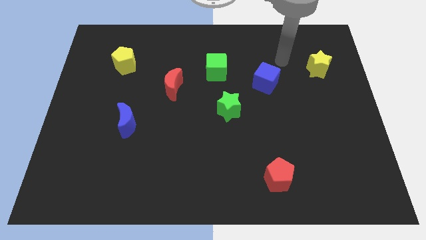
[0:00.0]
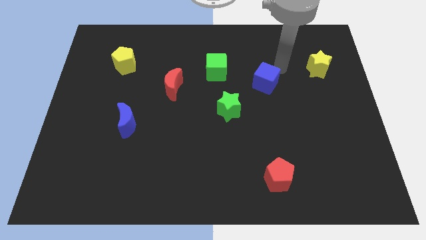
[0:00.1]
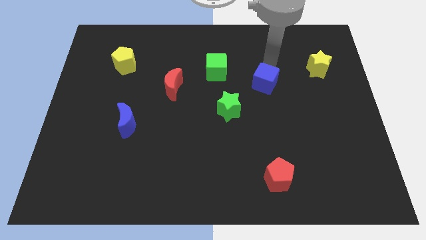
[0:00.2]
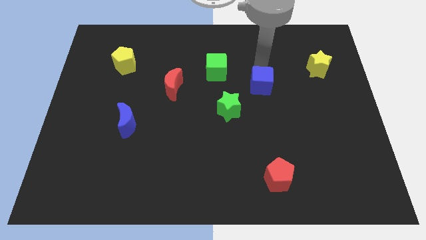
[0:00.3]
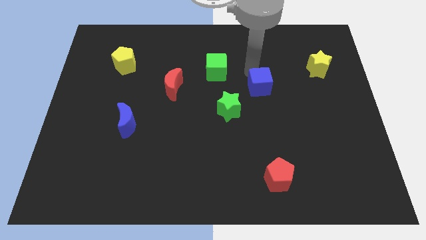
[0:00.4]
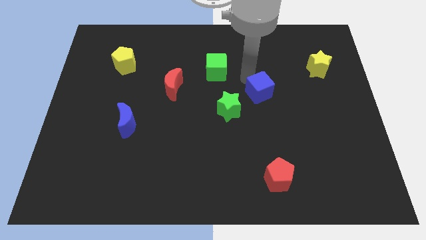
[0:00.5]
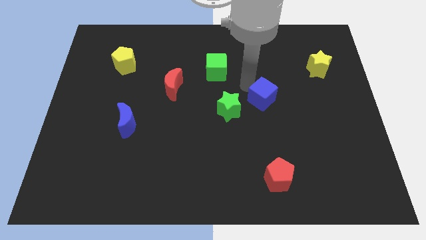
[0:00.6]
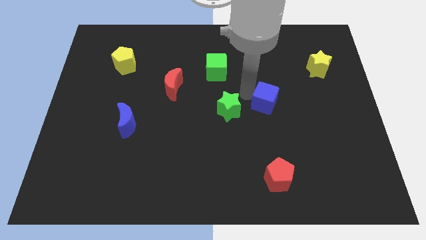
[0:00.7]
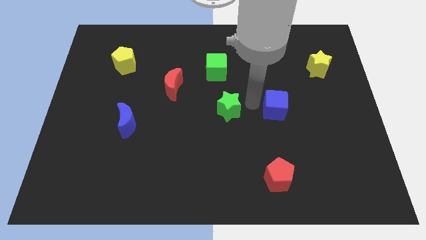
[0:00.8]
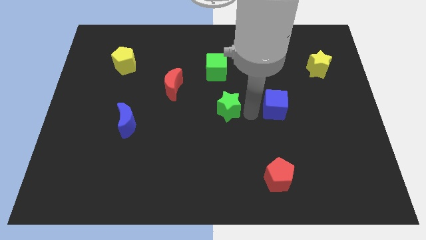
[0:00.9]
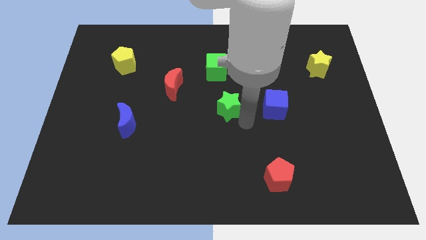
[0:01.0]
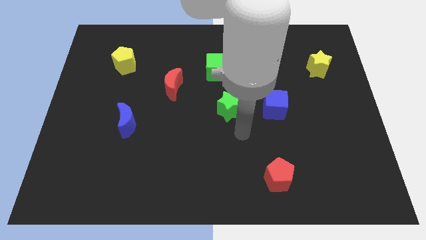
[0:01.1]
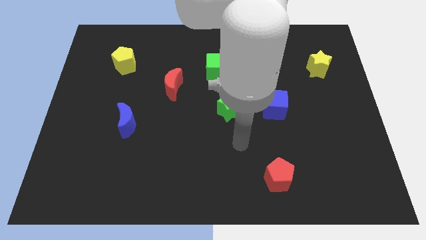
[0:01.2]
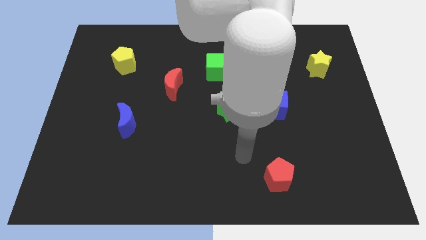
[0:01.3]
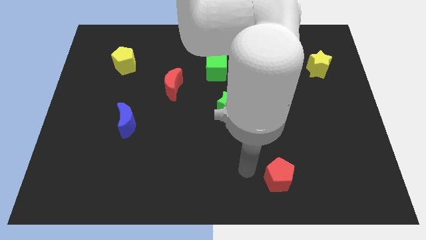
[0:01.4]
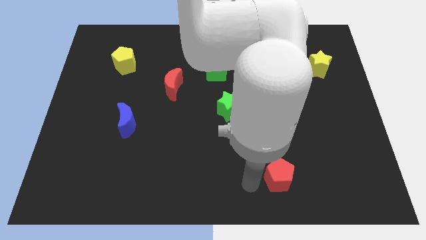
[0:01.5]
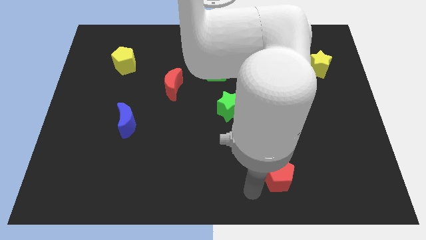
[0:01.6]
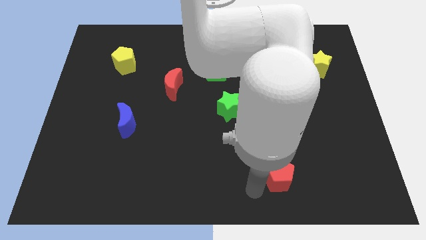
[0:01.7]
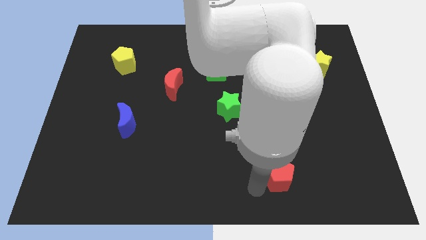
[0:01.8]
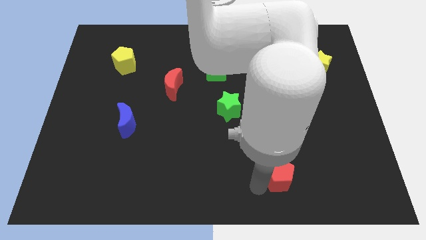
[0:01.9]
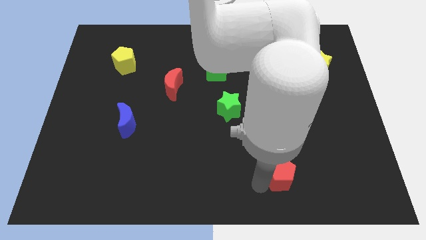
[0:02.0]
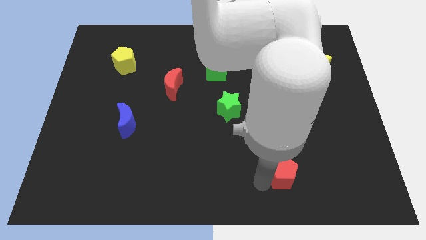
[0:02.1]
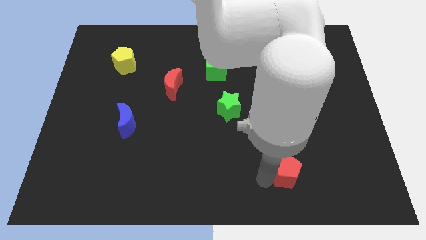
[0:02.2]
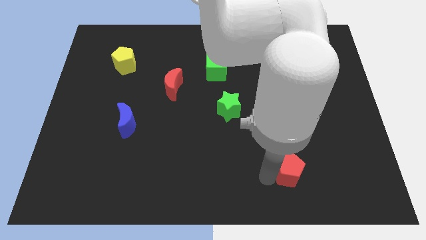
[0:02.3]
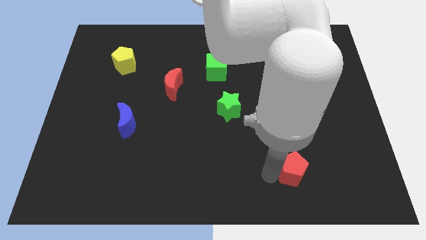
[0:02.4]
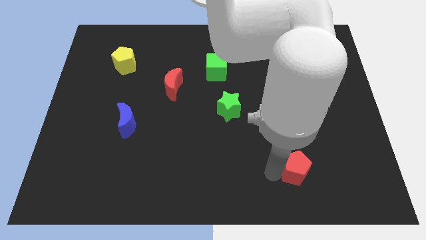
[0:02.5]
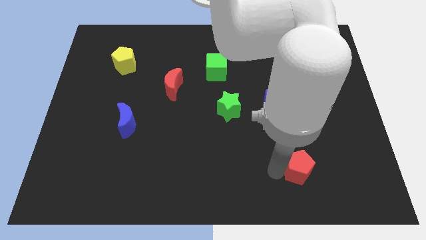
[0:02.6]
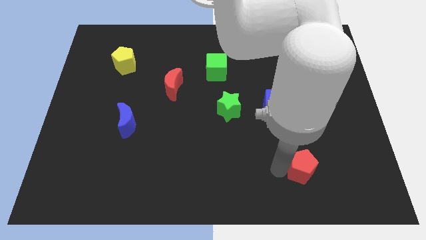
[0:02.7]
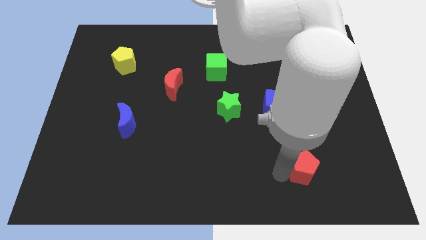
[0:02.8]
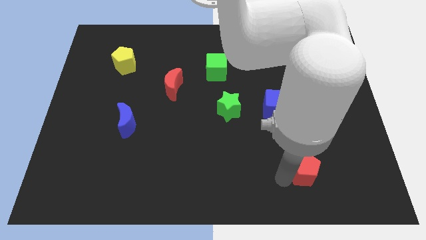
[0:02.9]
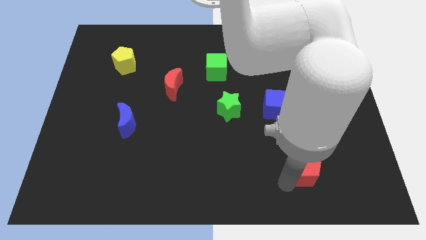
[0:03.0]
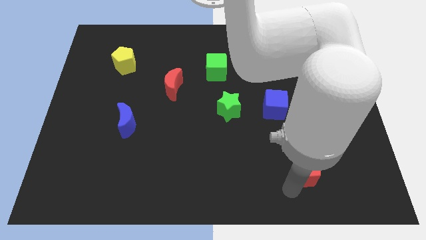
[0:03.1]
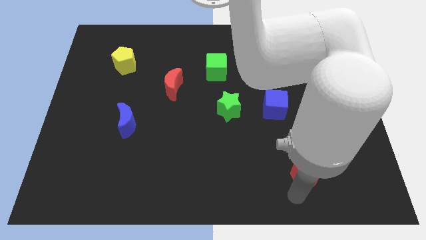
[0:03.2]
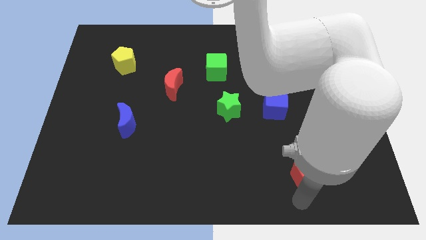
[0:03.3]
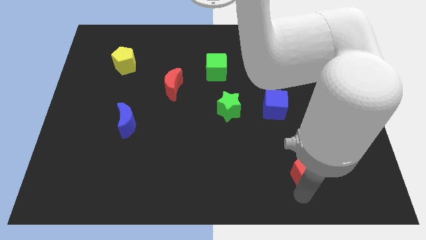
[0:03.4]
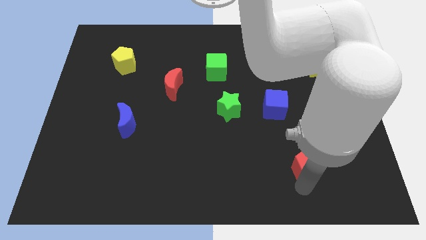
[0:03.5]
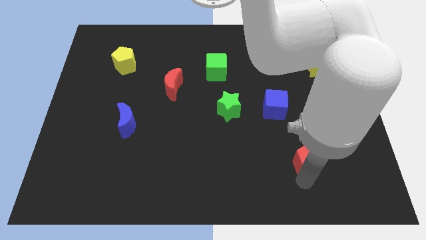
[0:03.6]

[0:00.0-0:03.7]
push the red pentagon a little bit diagonally upwards and right

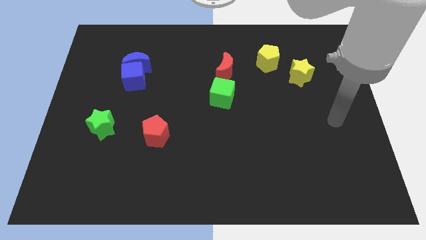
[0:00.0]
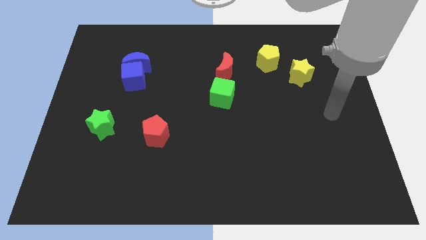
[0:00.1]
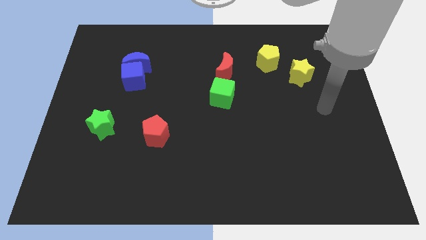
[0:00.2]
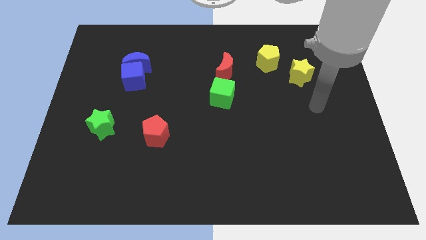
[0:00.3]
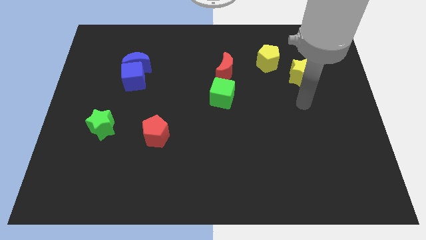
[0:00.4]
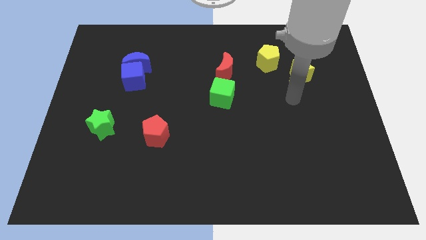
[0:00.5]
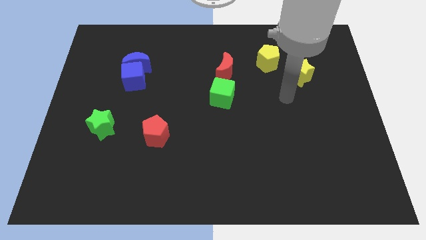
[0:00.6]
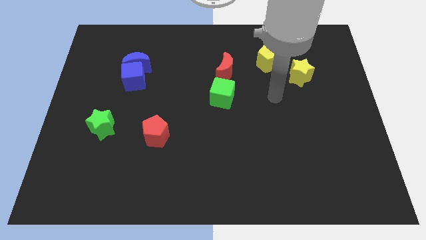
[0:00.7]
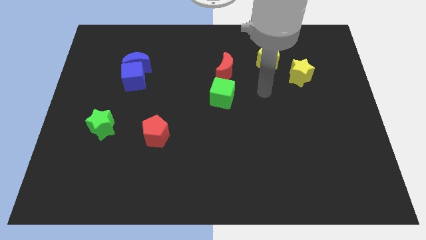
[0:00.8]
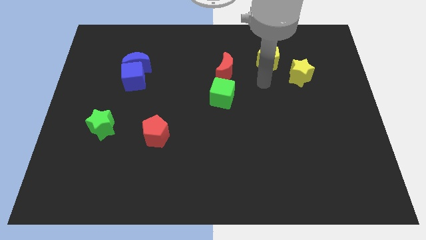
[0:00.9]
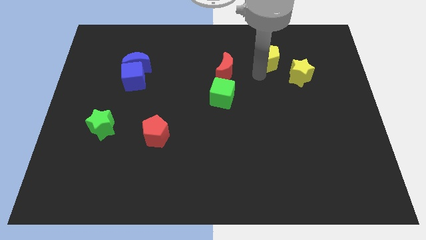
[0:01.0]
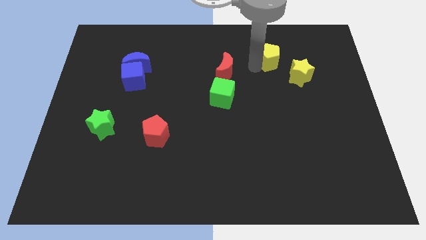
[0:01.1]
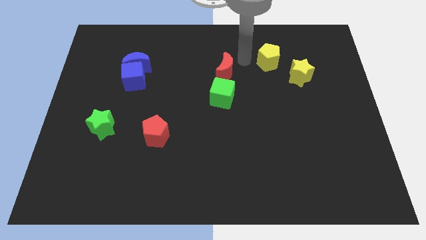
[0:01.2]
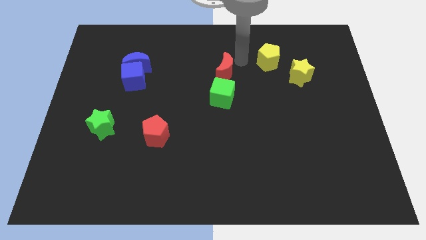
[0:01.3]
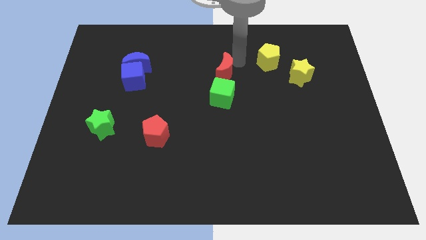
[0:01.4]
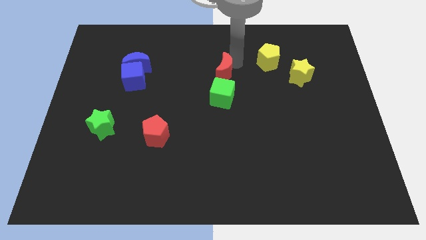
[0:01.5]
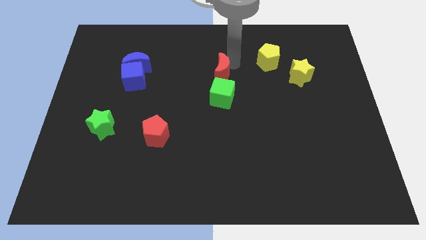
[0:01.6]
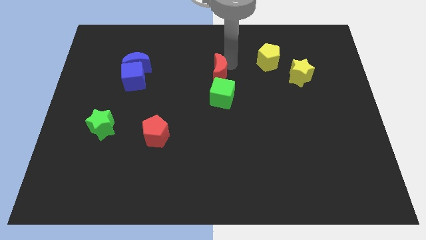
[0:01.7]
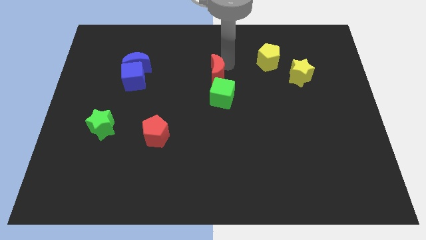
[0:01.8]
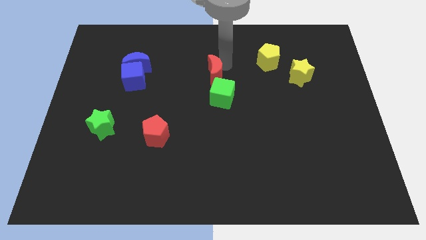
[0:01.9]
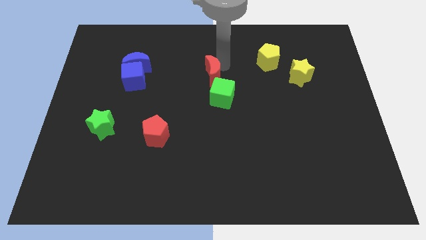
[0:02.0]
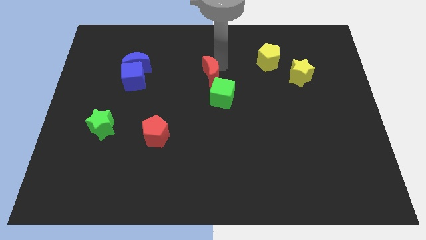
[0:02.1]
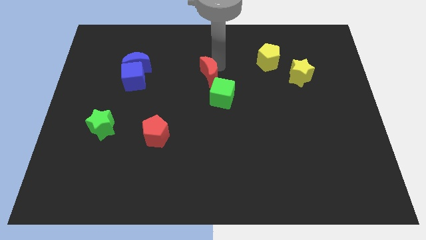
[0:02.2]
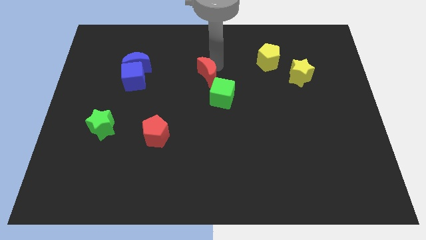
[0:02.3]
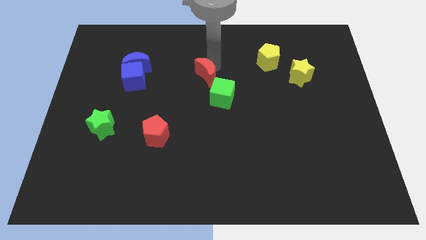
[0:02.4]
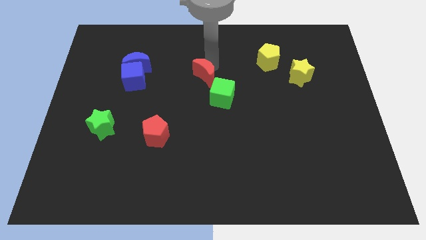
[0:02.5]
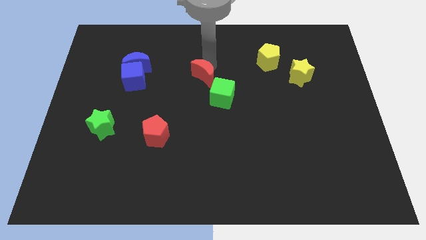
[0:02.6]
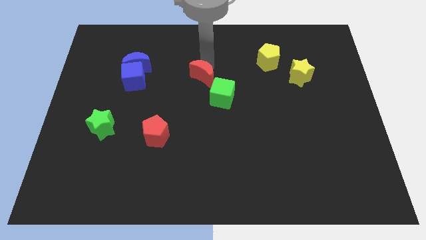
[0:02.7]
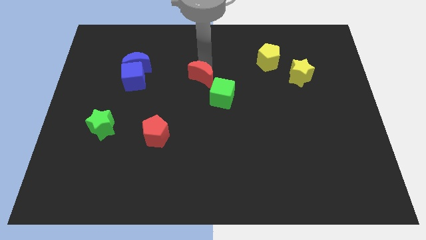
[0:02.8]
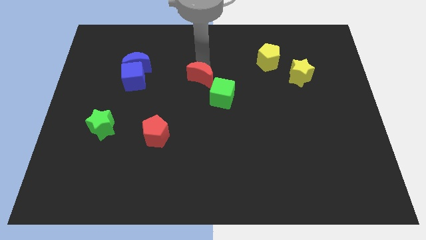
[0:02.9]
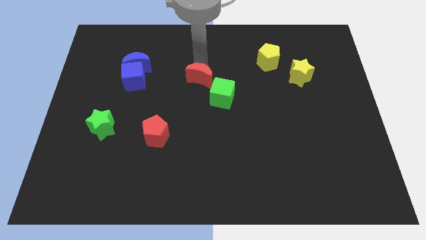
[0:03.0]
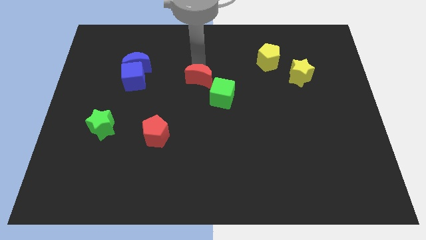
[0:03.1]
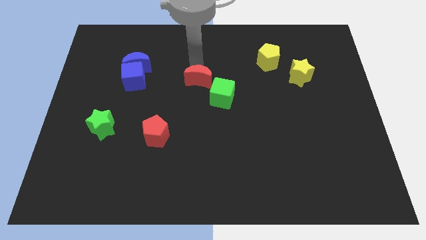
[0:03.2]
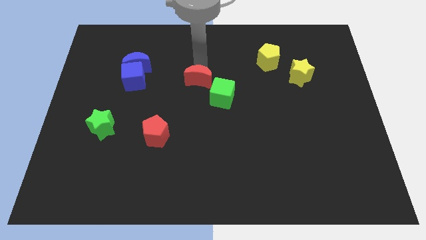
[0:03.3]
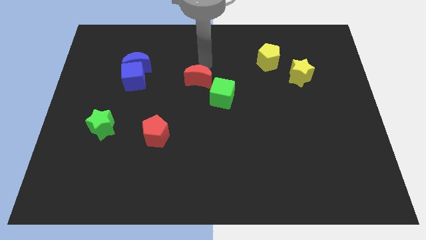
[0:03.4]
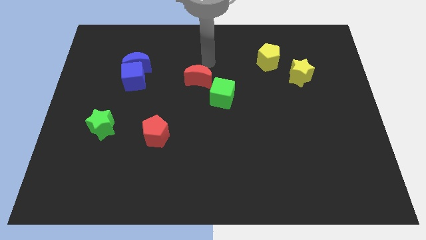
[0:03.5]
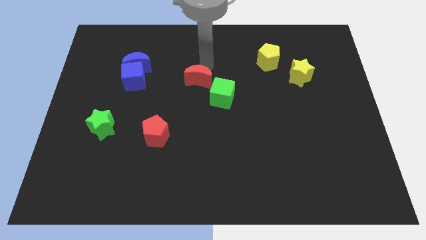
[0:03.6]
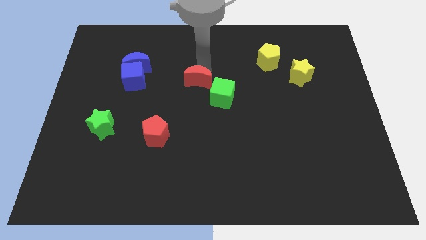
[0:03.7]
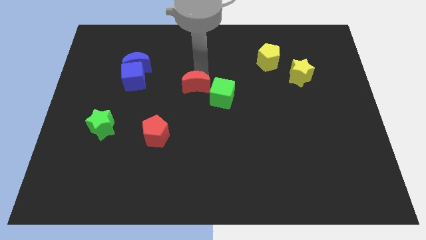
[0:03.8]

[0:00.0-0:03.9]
slightly move the red moon diagonally down and to the left

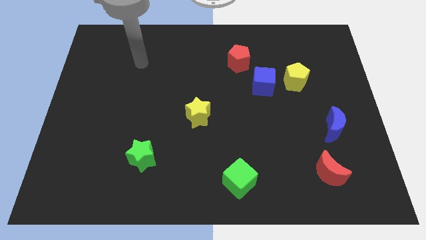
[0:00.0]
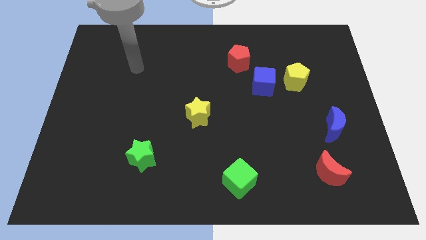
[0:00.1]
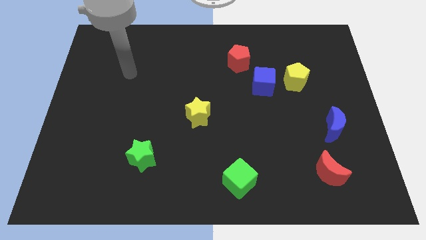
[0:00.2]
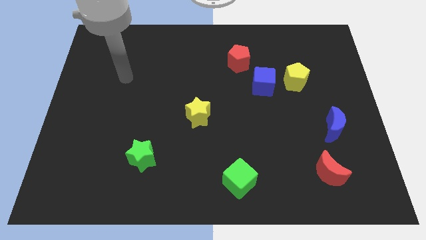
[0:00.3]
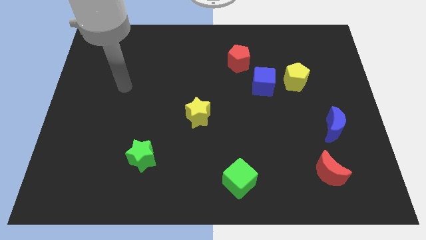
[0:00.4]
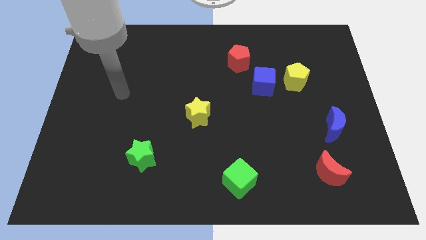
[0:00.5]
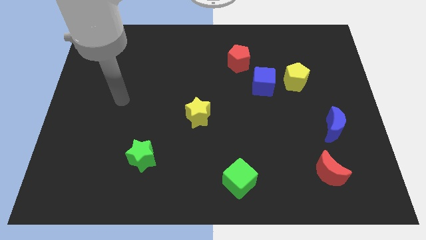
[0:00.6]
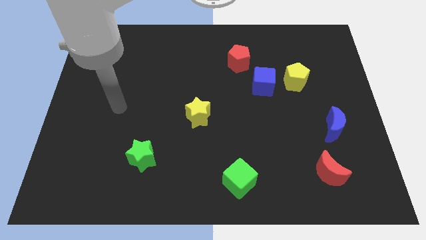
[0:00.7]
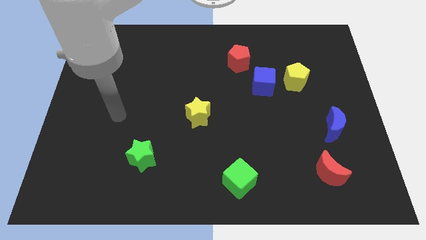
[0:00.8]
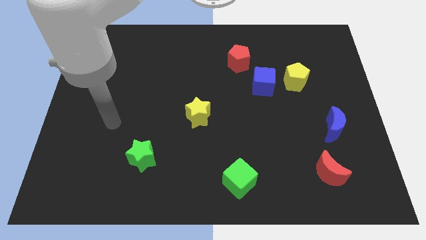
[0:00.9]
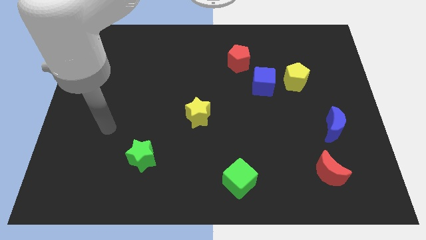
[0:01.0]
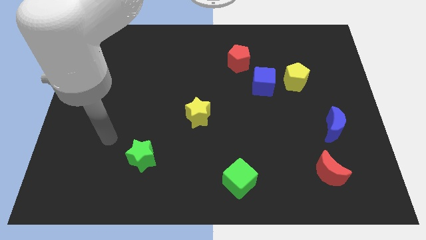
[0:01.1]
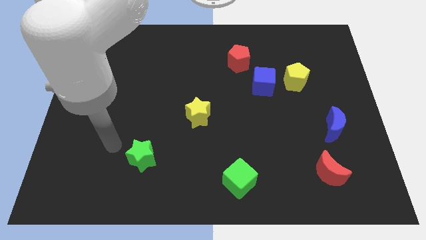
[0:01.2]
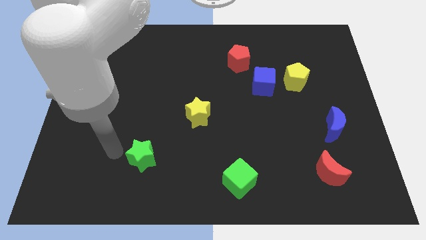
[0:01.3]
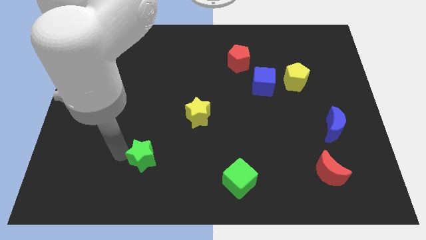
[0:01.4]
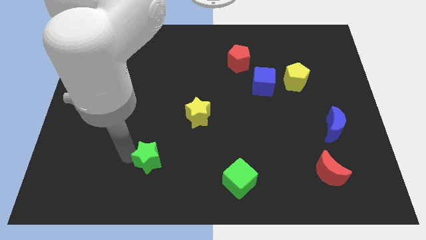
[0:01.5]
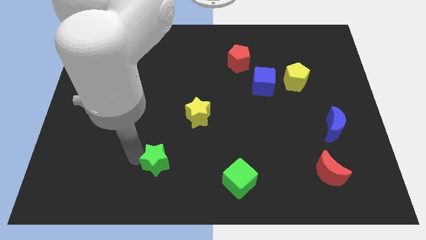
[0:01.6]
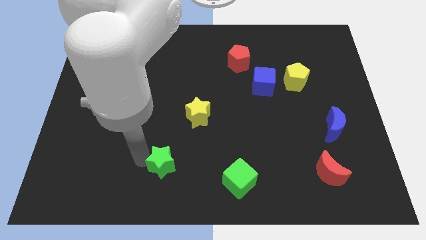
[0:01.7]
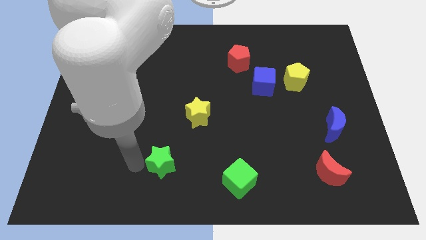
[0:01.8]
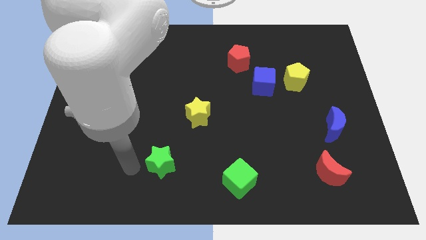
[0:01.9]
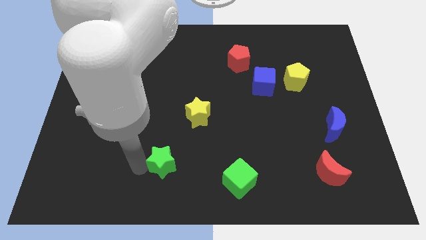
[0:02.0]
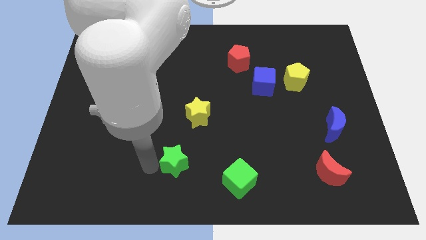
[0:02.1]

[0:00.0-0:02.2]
slightly push the green star right
